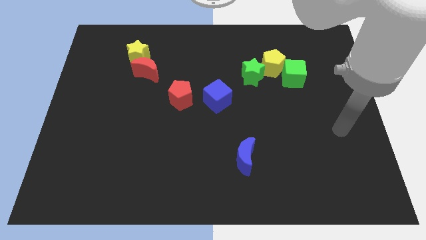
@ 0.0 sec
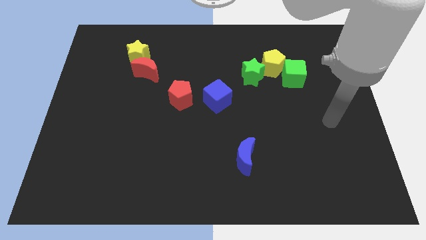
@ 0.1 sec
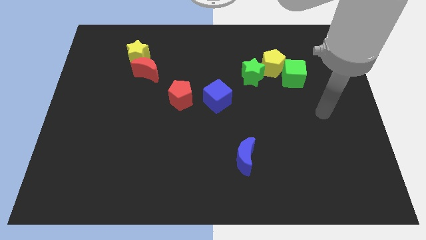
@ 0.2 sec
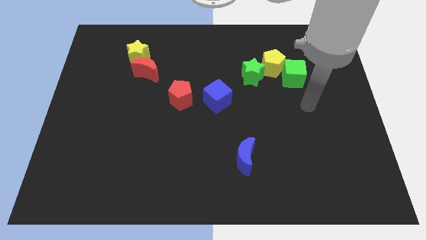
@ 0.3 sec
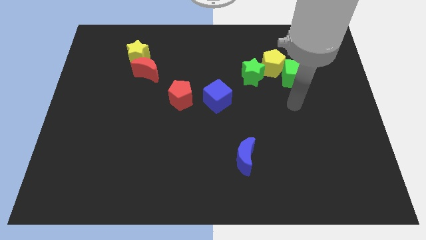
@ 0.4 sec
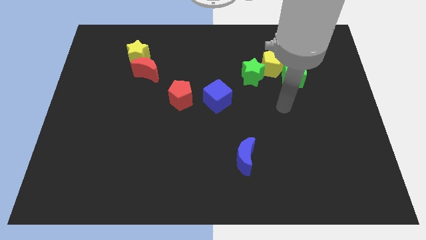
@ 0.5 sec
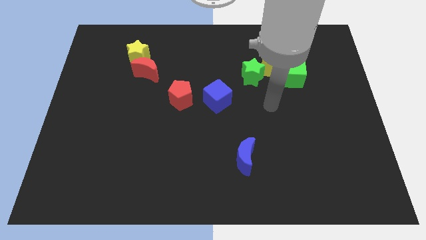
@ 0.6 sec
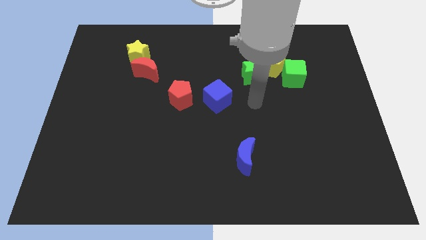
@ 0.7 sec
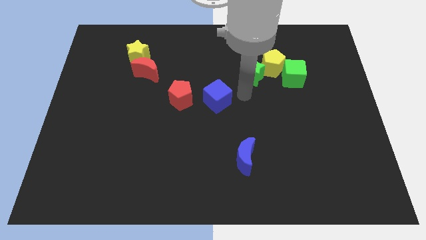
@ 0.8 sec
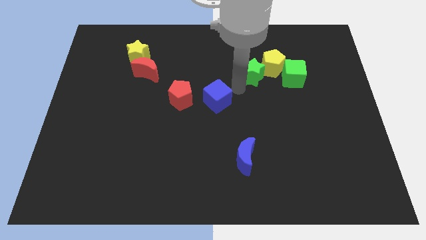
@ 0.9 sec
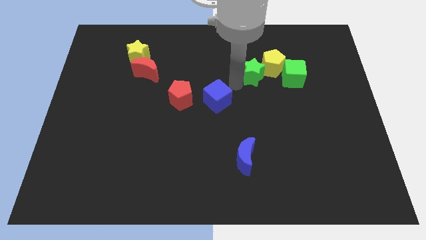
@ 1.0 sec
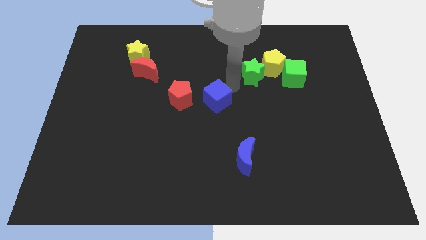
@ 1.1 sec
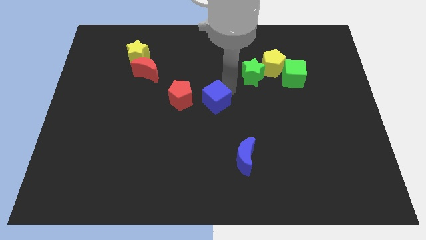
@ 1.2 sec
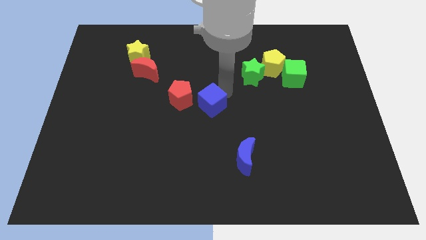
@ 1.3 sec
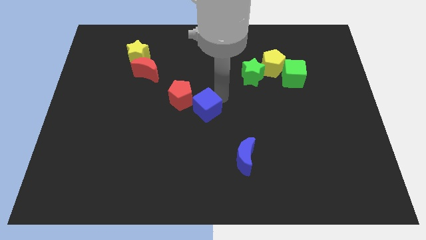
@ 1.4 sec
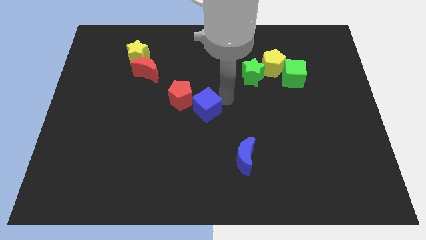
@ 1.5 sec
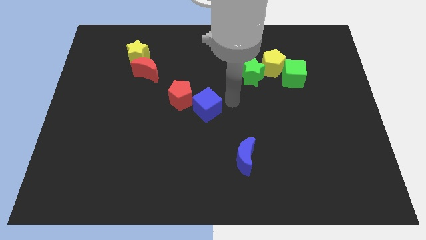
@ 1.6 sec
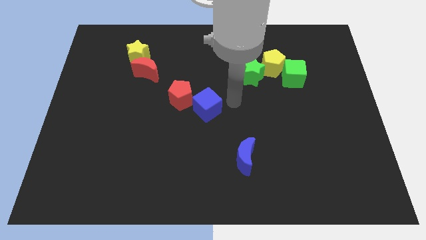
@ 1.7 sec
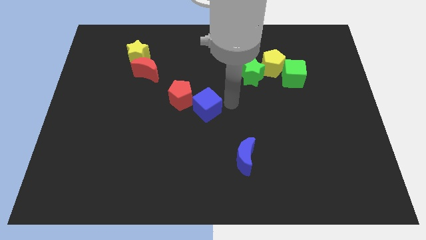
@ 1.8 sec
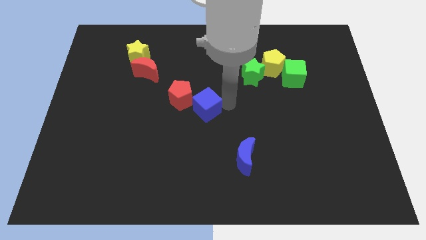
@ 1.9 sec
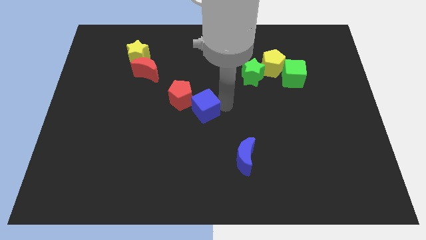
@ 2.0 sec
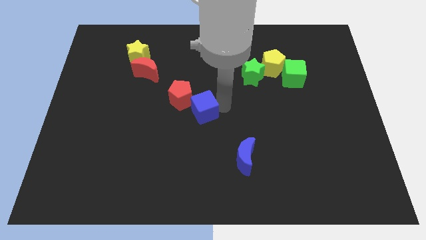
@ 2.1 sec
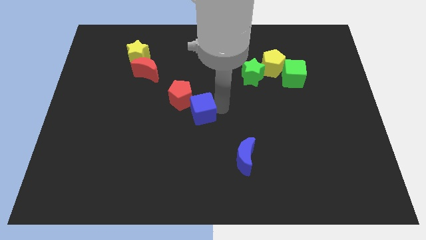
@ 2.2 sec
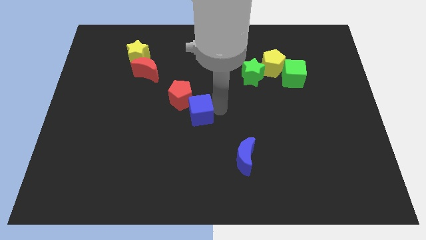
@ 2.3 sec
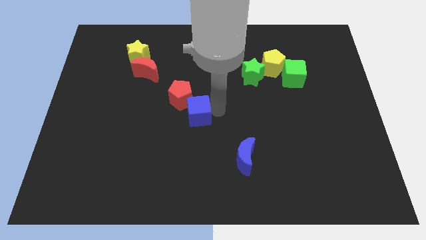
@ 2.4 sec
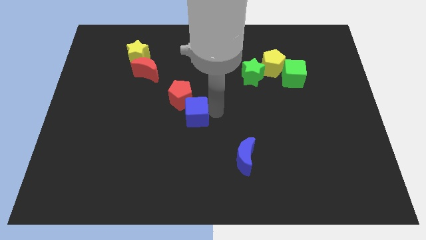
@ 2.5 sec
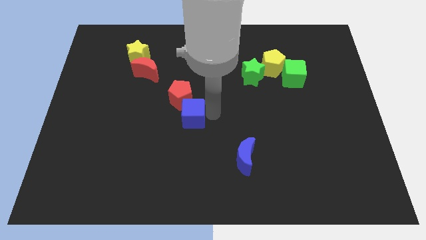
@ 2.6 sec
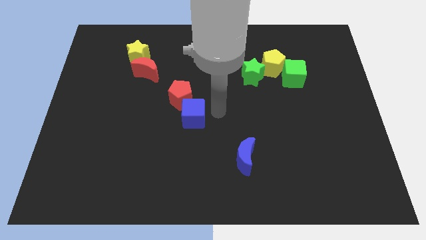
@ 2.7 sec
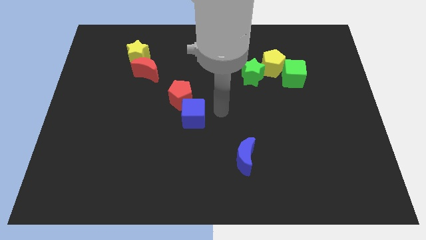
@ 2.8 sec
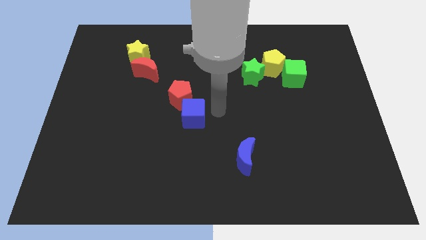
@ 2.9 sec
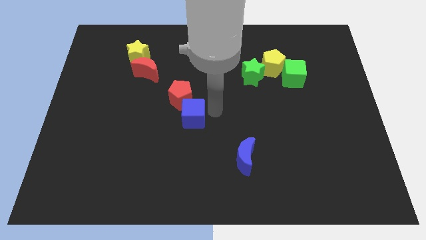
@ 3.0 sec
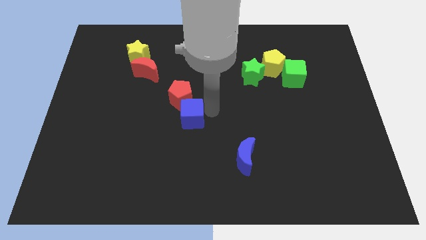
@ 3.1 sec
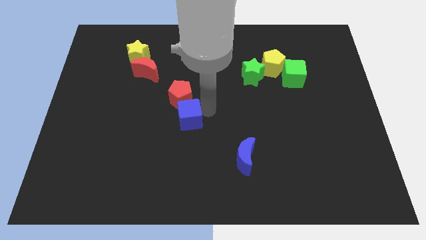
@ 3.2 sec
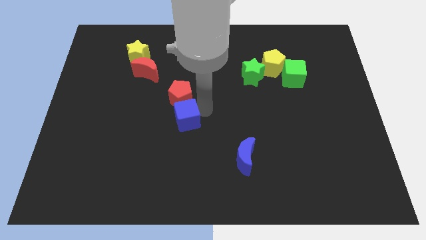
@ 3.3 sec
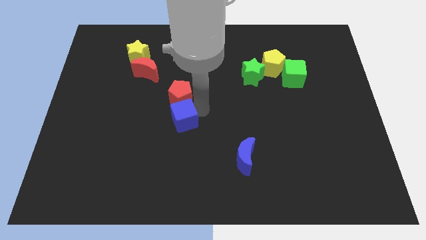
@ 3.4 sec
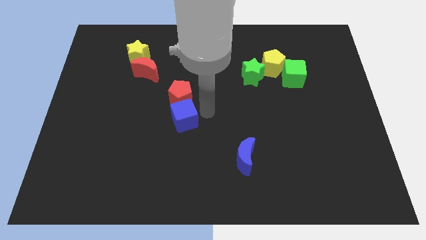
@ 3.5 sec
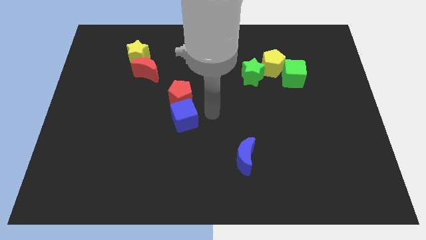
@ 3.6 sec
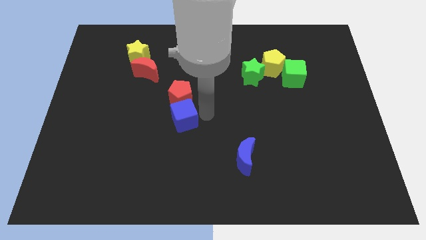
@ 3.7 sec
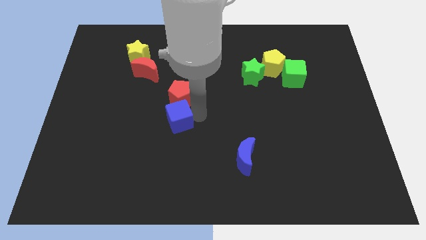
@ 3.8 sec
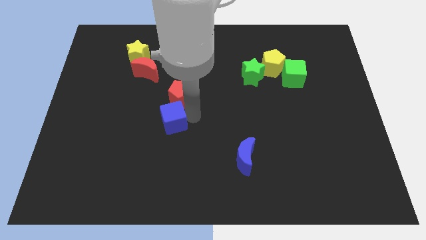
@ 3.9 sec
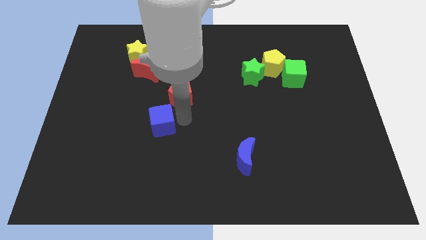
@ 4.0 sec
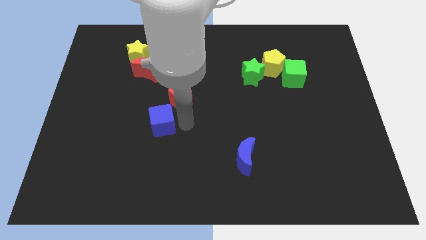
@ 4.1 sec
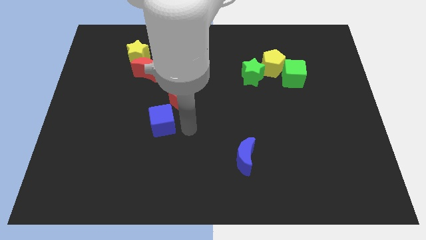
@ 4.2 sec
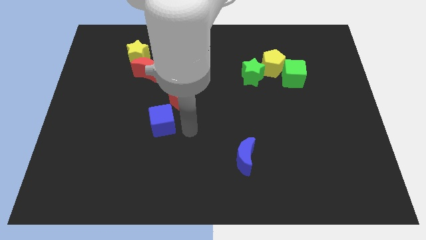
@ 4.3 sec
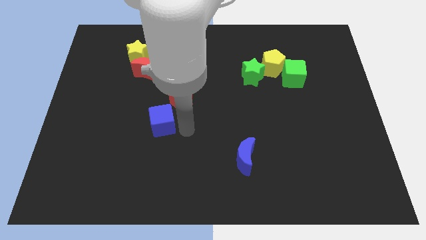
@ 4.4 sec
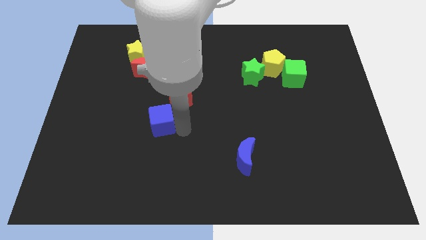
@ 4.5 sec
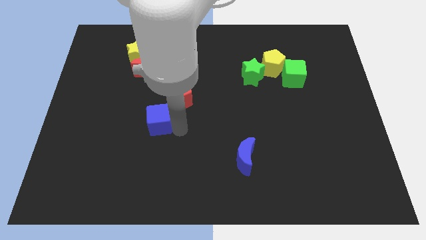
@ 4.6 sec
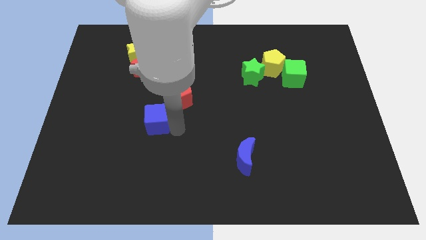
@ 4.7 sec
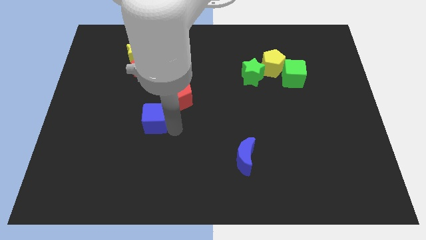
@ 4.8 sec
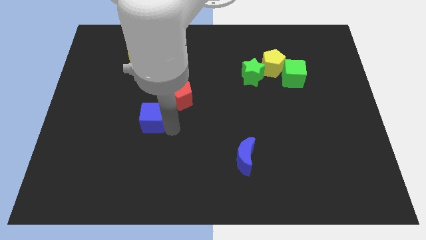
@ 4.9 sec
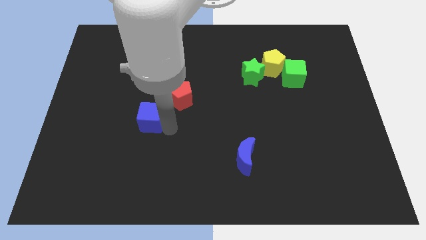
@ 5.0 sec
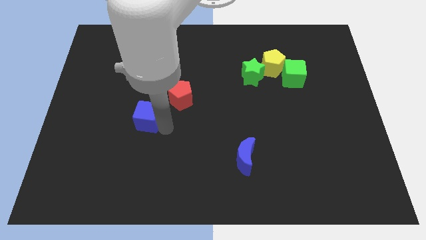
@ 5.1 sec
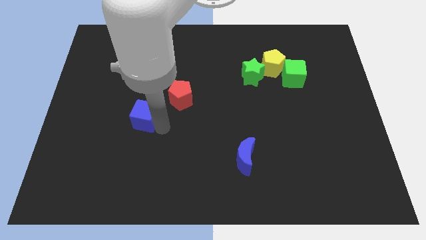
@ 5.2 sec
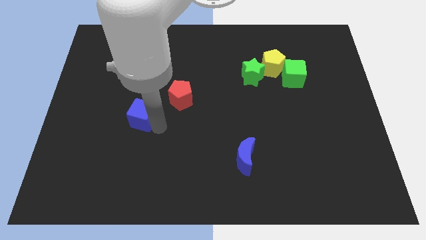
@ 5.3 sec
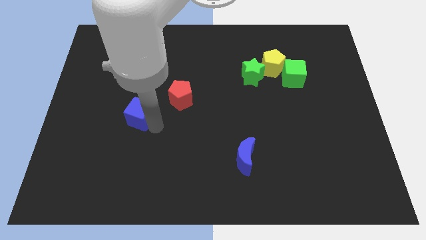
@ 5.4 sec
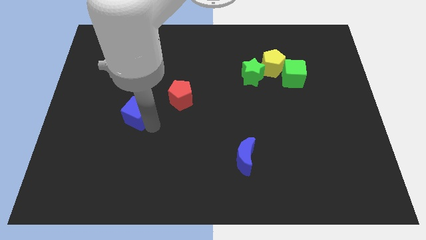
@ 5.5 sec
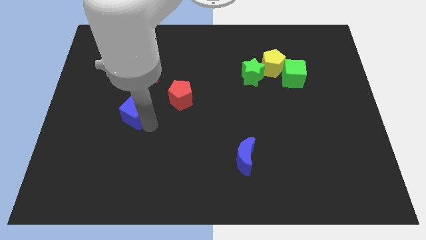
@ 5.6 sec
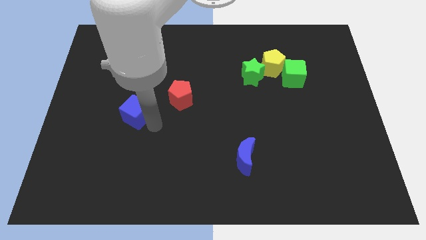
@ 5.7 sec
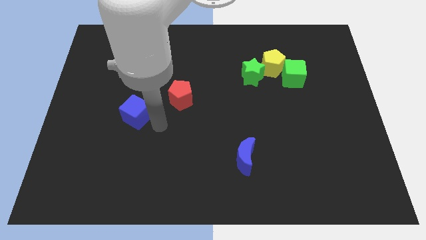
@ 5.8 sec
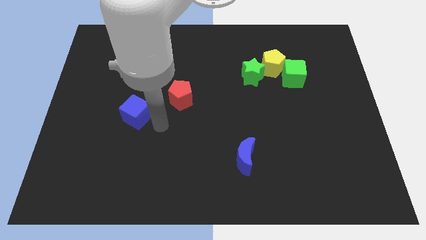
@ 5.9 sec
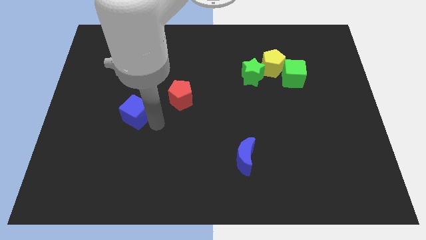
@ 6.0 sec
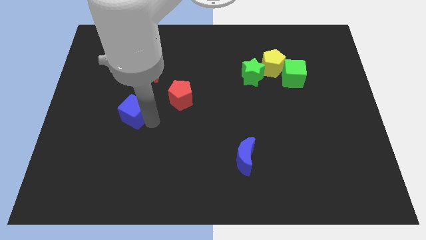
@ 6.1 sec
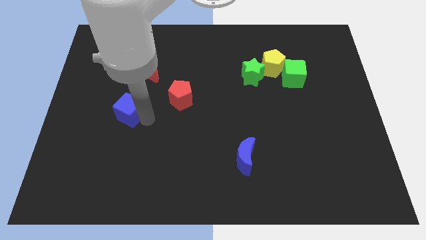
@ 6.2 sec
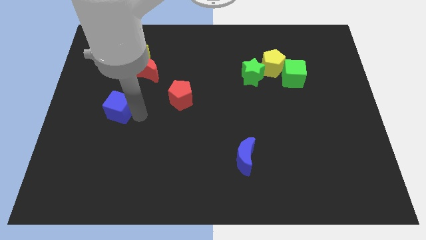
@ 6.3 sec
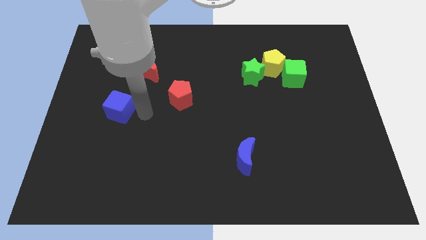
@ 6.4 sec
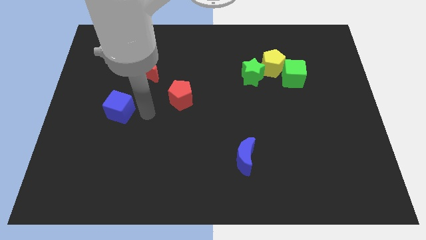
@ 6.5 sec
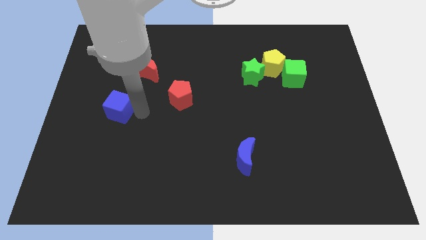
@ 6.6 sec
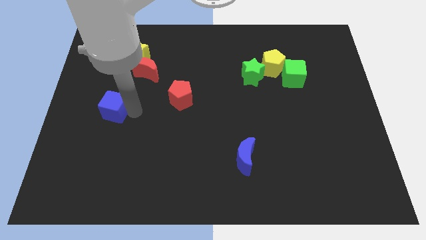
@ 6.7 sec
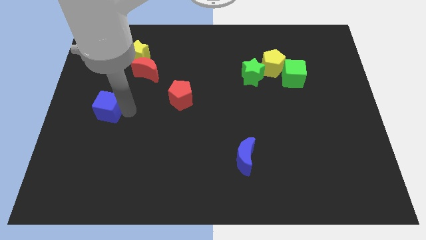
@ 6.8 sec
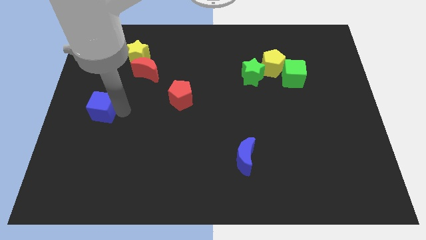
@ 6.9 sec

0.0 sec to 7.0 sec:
move the blue cube to the left side of the board

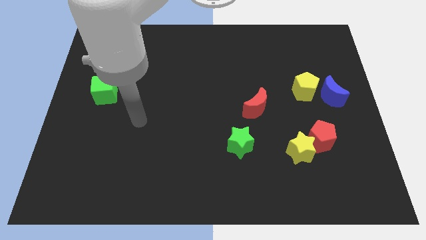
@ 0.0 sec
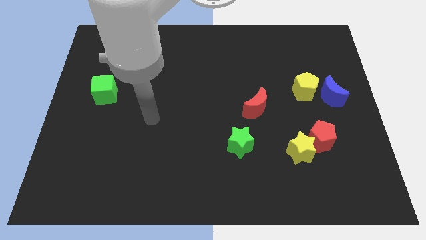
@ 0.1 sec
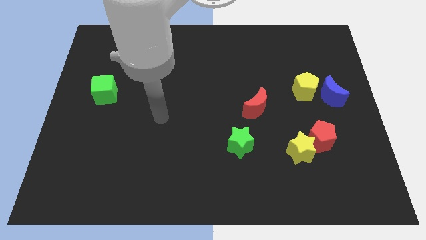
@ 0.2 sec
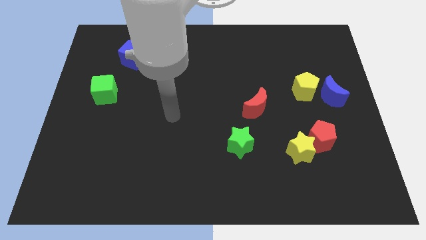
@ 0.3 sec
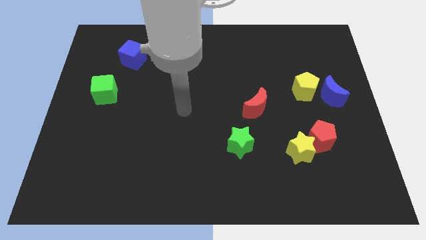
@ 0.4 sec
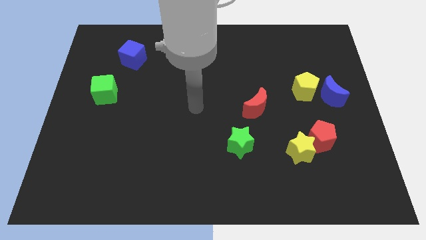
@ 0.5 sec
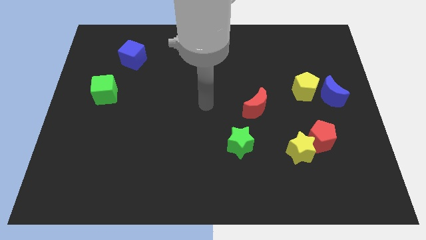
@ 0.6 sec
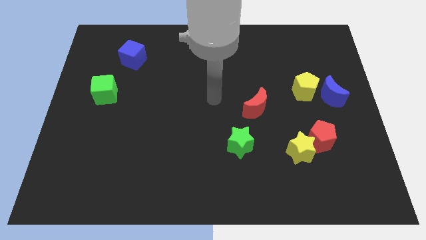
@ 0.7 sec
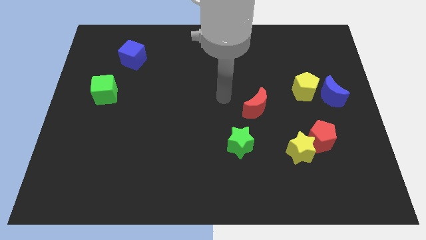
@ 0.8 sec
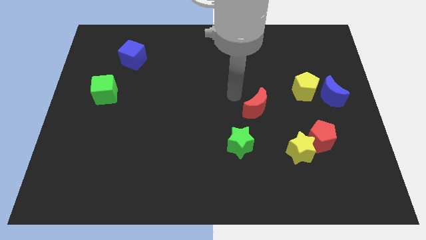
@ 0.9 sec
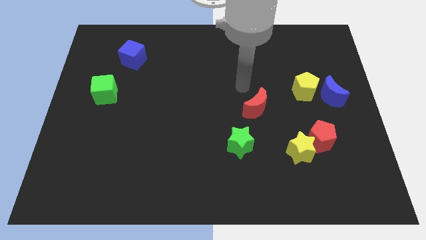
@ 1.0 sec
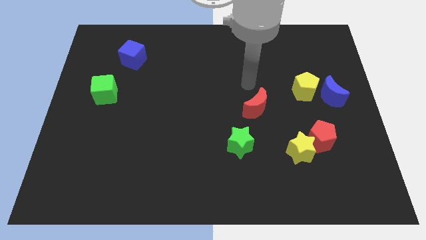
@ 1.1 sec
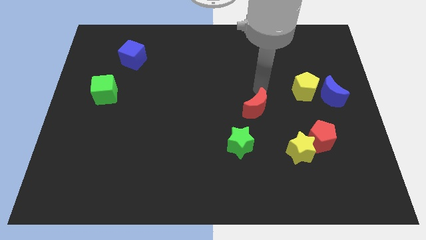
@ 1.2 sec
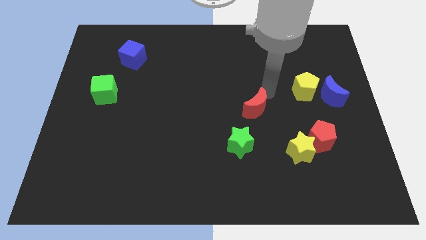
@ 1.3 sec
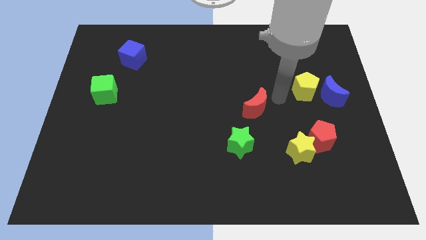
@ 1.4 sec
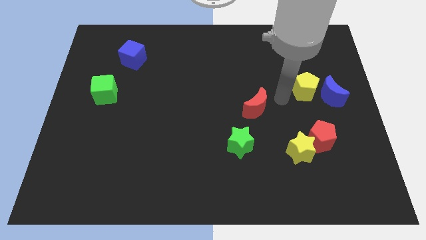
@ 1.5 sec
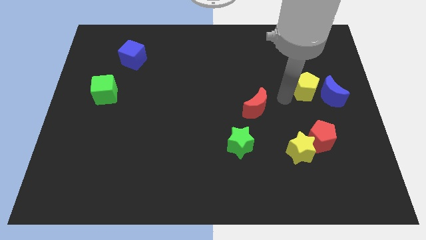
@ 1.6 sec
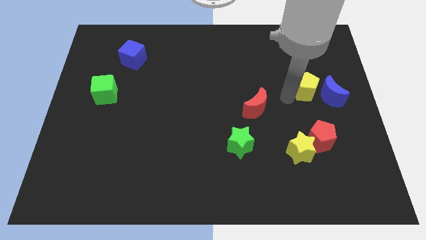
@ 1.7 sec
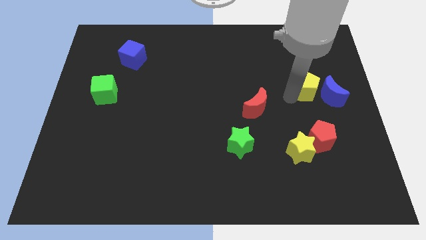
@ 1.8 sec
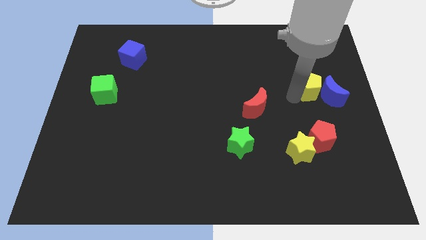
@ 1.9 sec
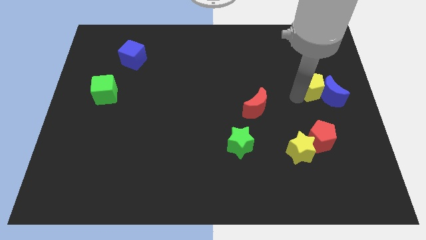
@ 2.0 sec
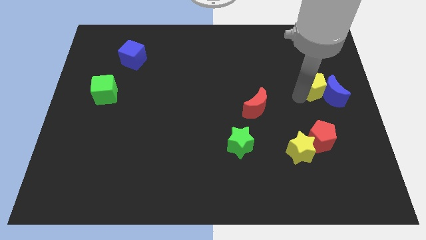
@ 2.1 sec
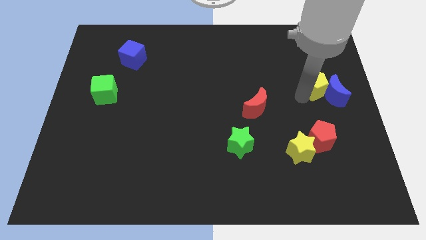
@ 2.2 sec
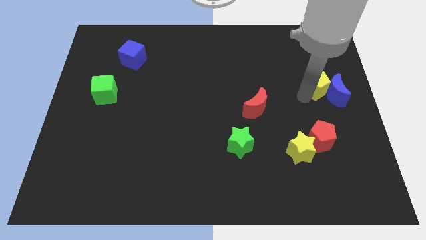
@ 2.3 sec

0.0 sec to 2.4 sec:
push the yellow pentagon to the right side of the board
